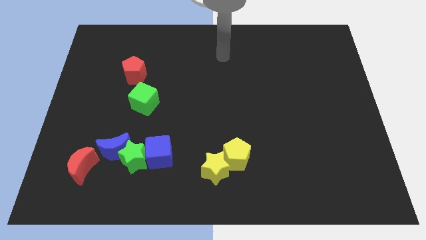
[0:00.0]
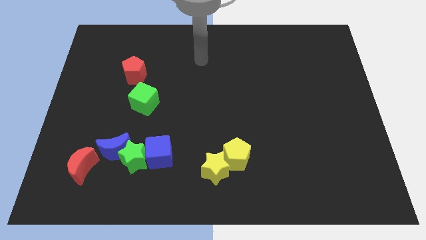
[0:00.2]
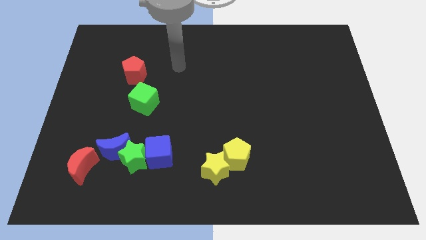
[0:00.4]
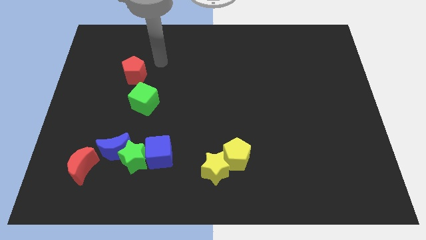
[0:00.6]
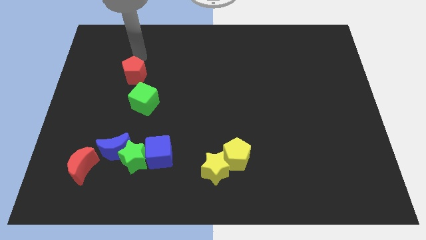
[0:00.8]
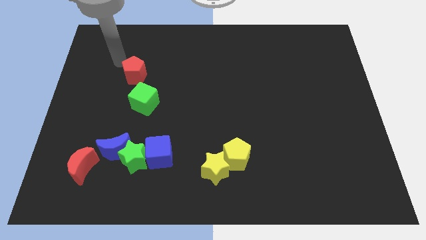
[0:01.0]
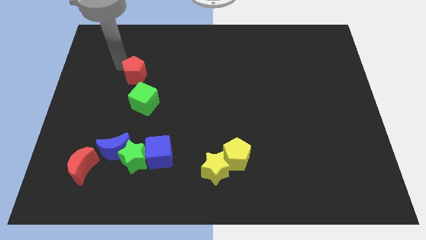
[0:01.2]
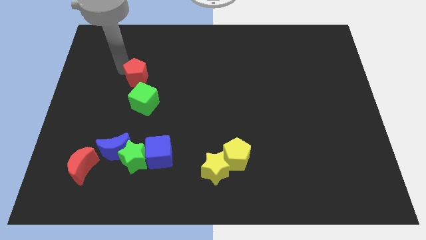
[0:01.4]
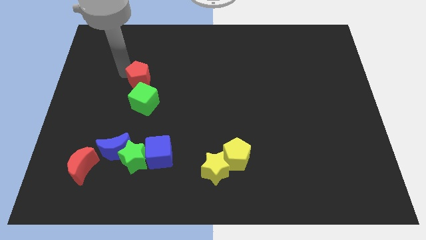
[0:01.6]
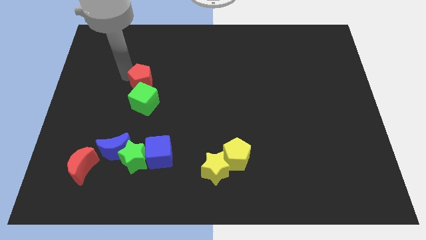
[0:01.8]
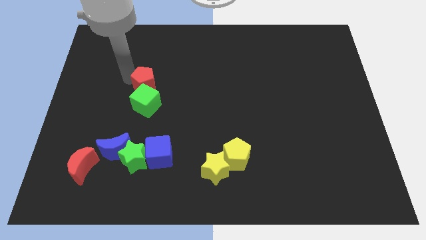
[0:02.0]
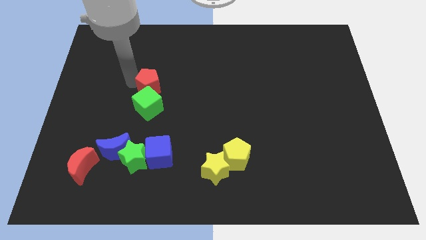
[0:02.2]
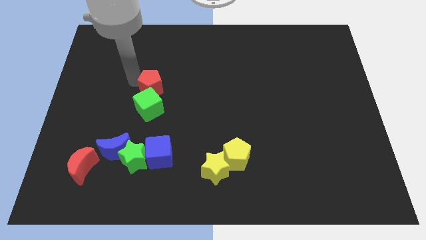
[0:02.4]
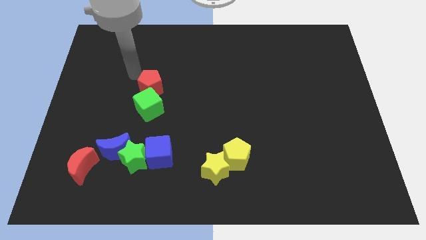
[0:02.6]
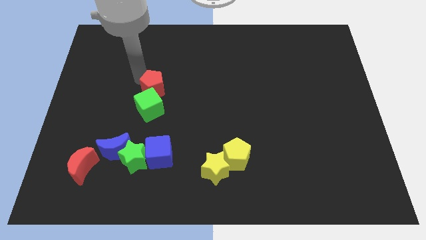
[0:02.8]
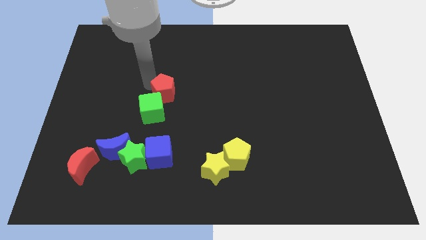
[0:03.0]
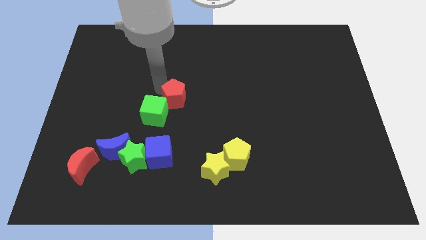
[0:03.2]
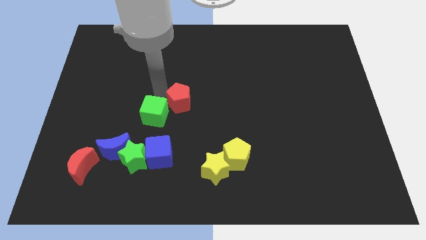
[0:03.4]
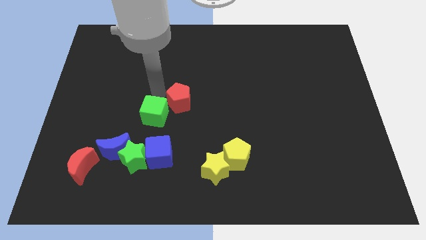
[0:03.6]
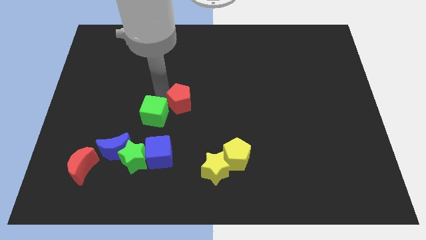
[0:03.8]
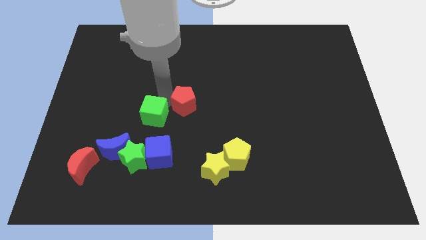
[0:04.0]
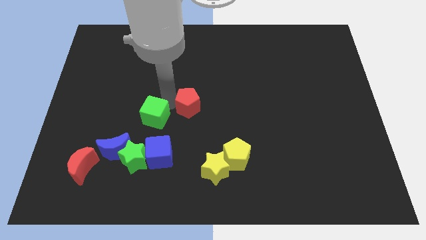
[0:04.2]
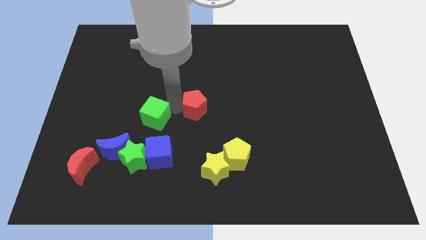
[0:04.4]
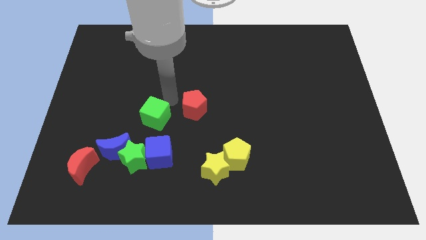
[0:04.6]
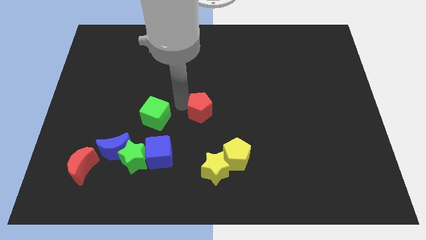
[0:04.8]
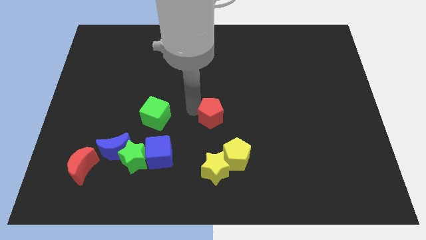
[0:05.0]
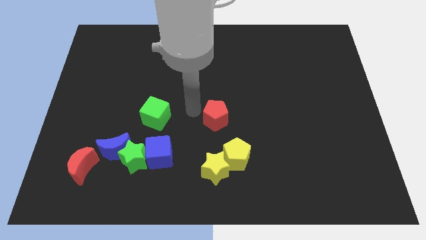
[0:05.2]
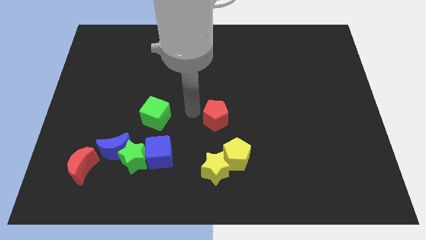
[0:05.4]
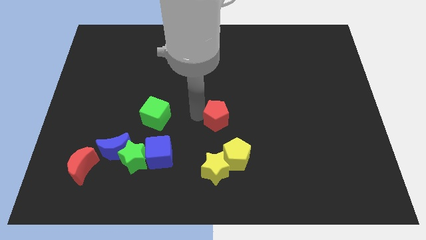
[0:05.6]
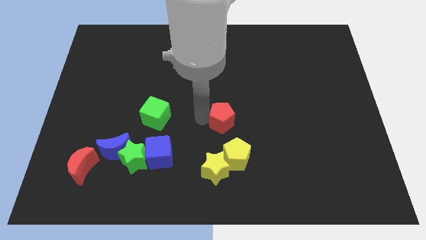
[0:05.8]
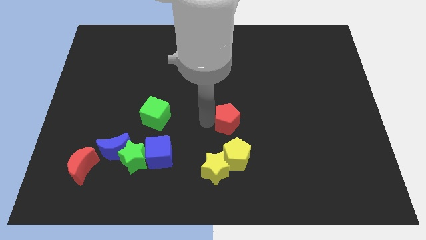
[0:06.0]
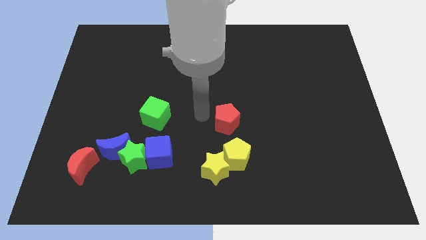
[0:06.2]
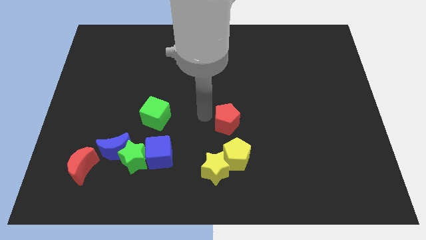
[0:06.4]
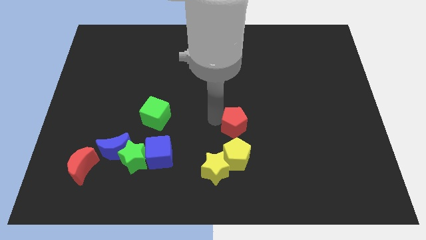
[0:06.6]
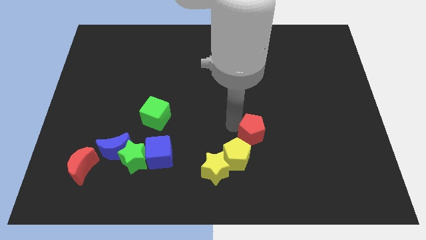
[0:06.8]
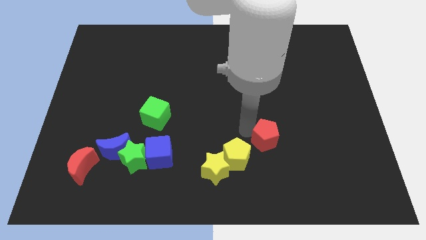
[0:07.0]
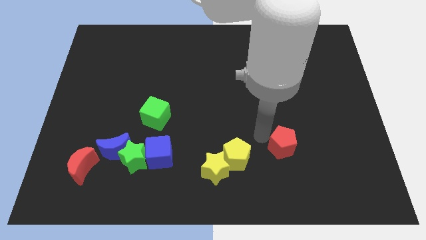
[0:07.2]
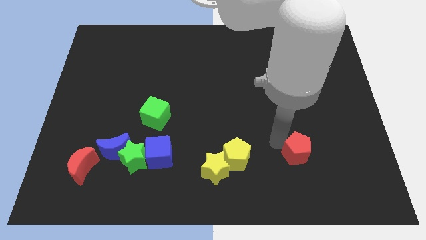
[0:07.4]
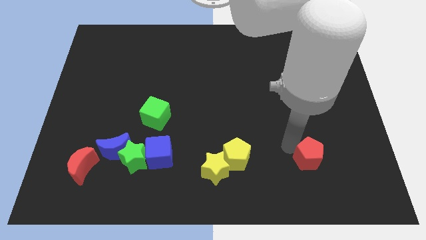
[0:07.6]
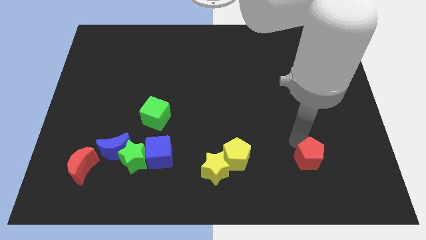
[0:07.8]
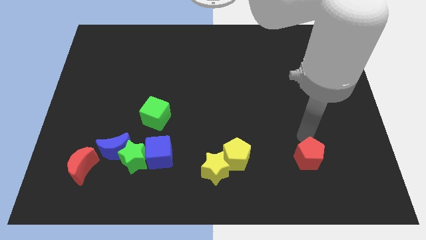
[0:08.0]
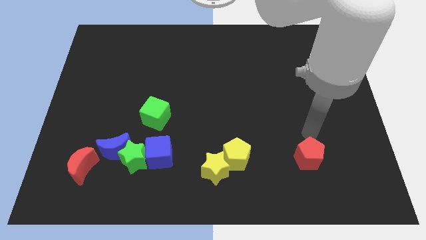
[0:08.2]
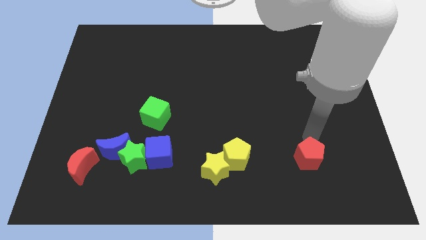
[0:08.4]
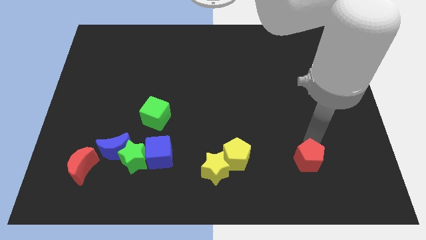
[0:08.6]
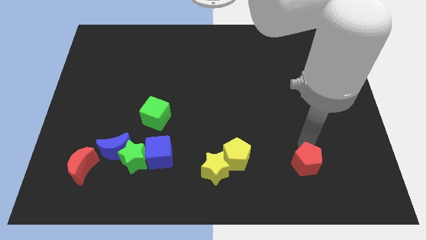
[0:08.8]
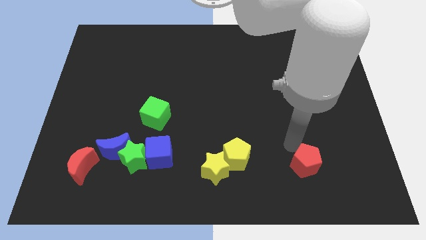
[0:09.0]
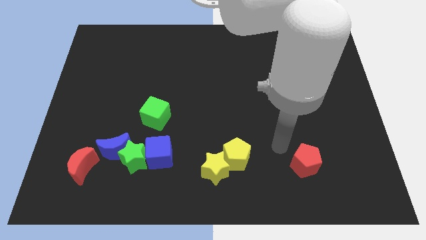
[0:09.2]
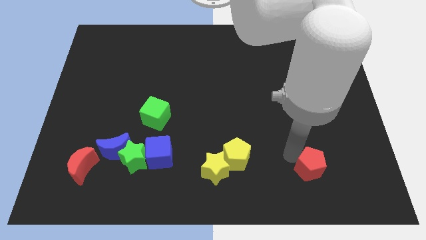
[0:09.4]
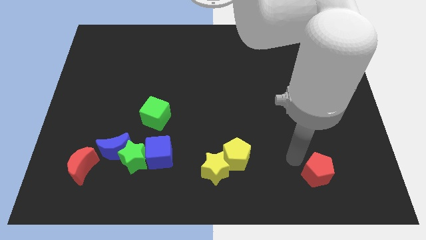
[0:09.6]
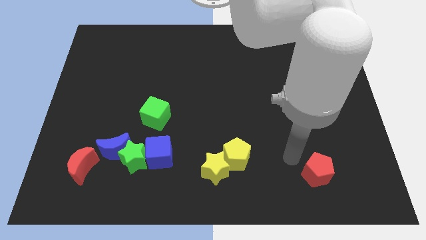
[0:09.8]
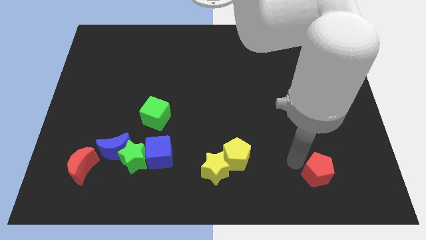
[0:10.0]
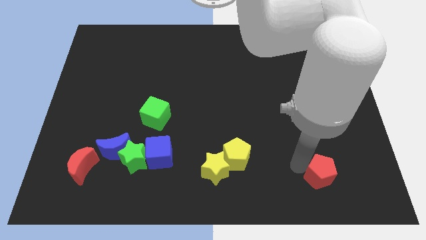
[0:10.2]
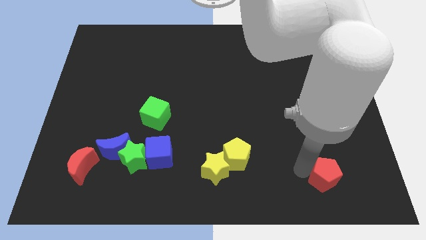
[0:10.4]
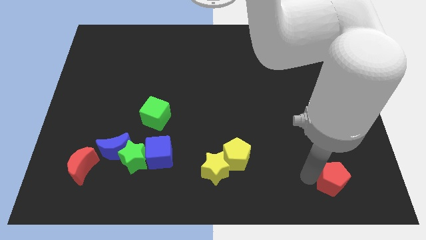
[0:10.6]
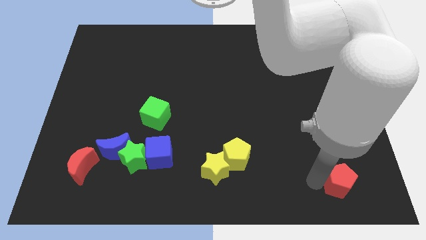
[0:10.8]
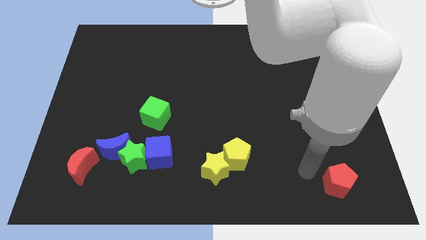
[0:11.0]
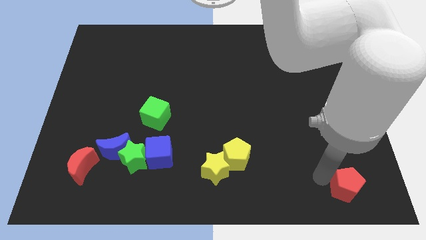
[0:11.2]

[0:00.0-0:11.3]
slide the red pentagon to the lower right corner
